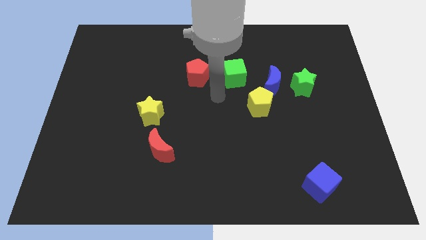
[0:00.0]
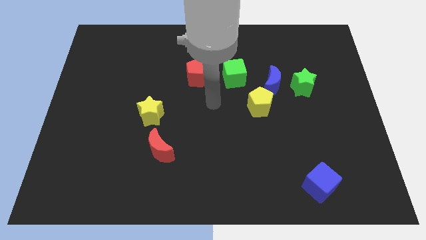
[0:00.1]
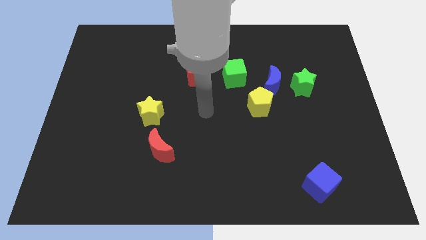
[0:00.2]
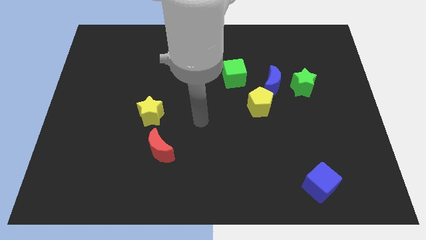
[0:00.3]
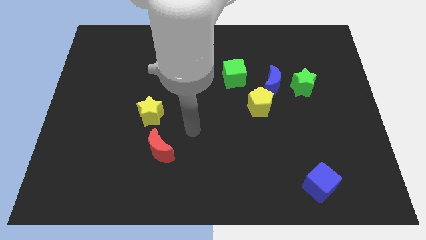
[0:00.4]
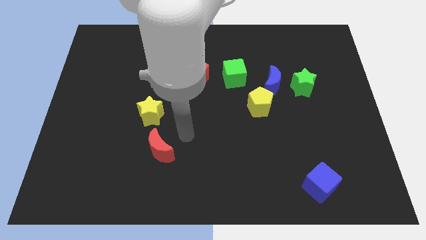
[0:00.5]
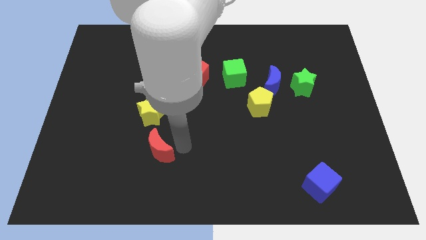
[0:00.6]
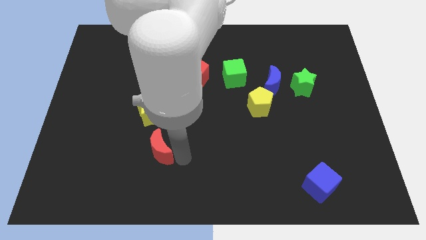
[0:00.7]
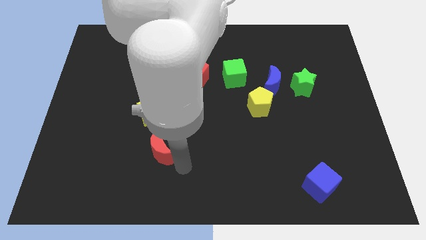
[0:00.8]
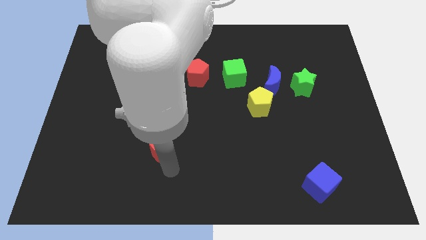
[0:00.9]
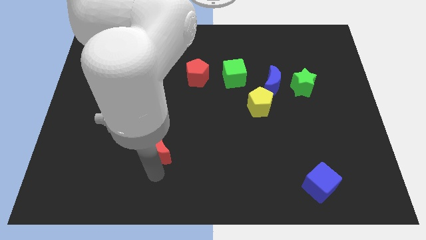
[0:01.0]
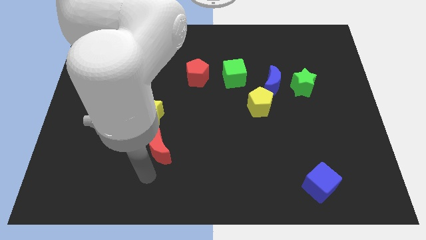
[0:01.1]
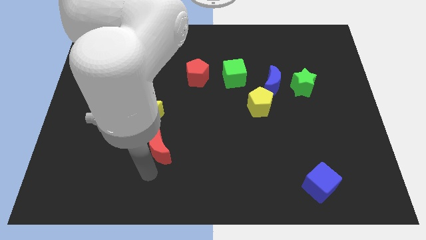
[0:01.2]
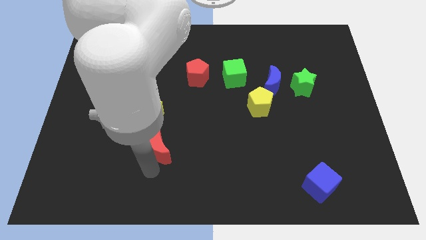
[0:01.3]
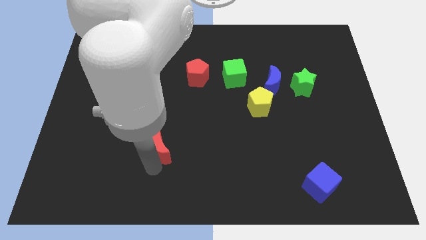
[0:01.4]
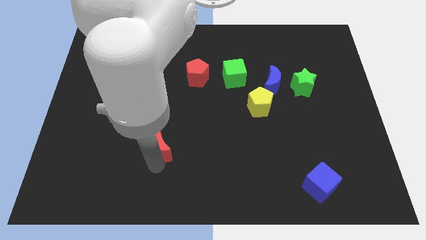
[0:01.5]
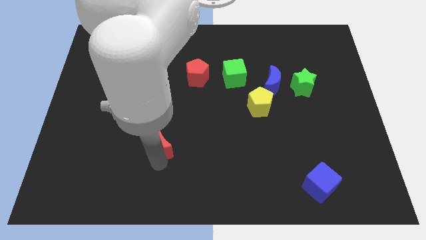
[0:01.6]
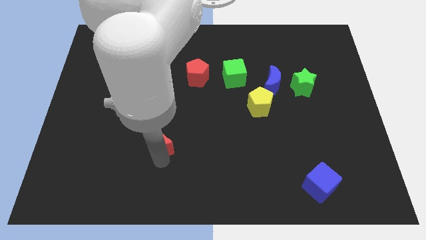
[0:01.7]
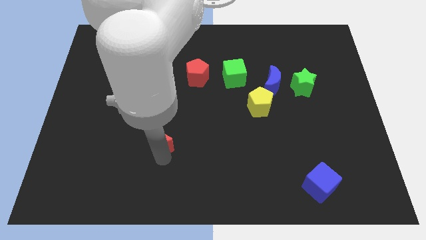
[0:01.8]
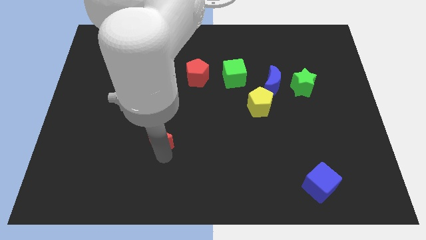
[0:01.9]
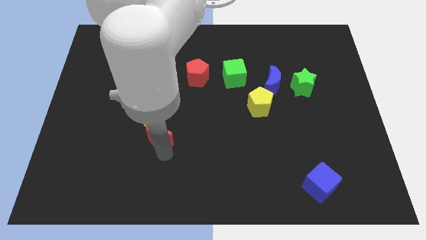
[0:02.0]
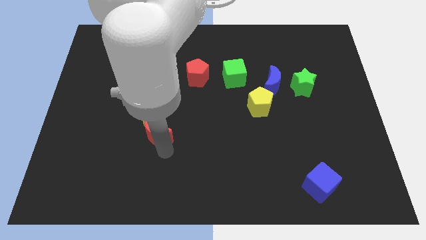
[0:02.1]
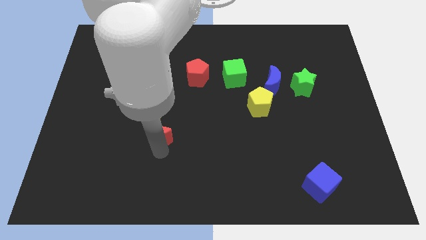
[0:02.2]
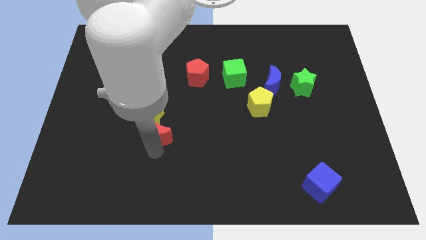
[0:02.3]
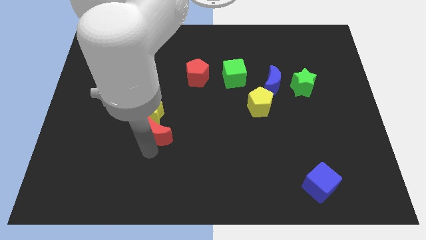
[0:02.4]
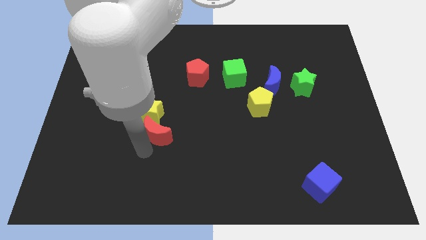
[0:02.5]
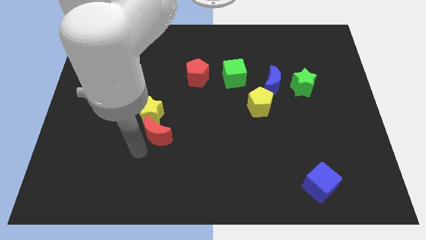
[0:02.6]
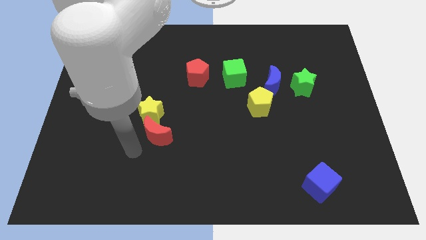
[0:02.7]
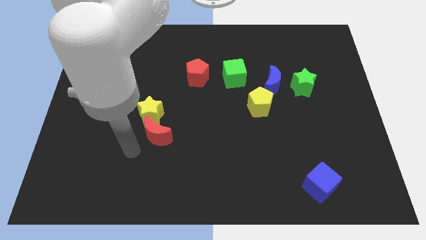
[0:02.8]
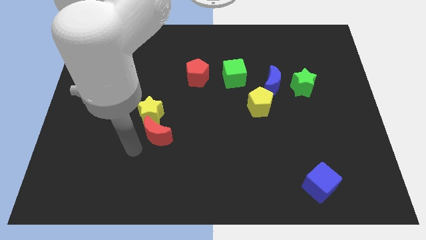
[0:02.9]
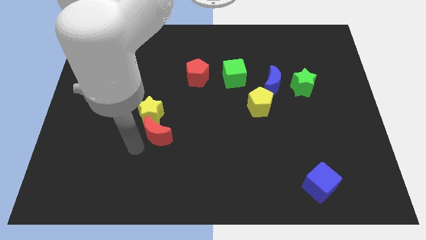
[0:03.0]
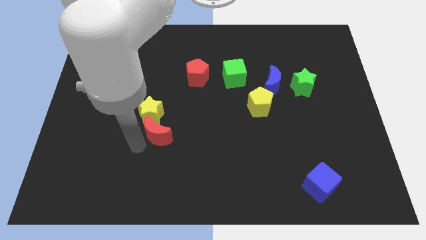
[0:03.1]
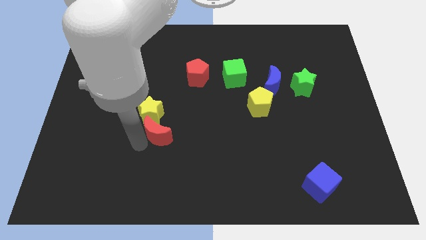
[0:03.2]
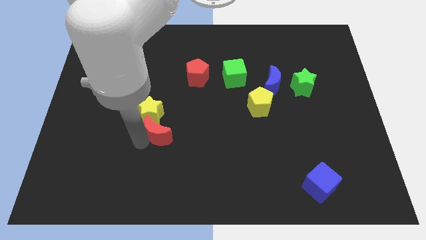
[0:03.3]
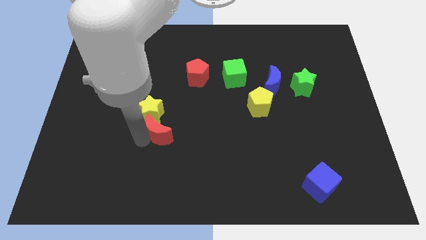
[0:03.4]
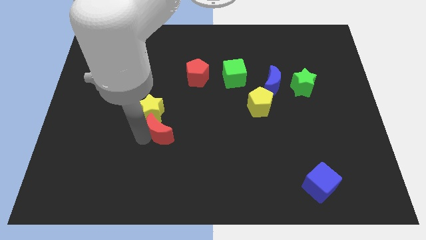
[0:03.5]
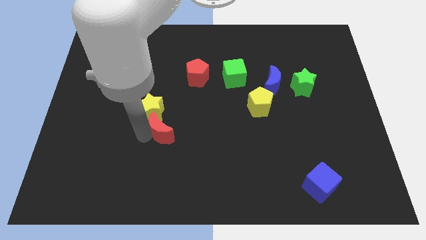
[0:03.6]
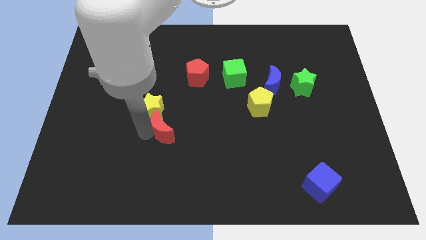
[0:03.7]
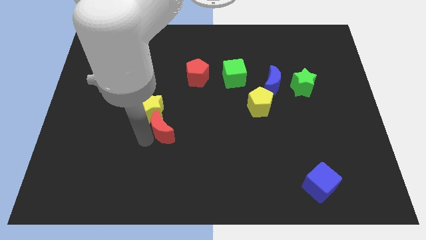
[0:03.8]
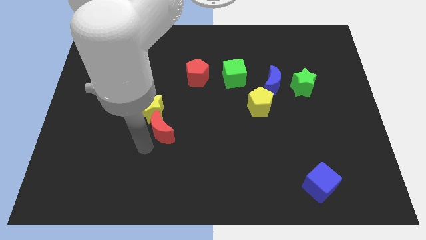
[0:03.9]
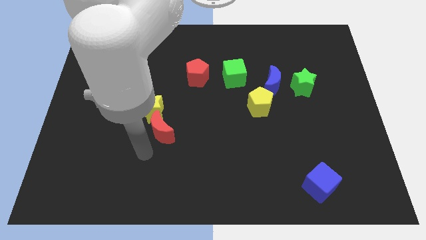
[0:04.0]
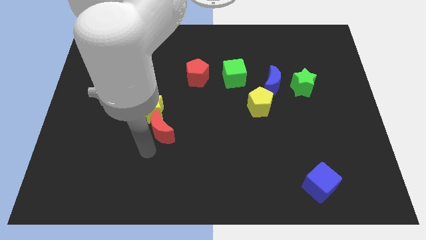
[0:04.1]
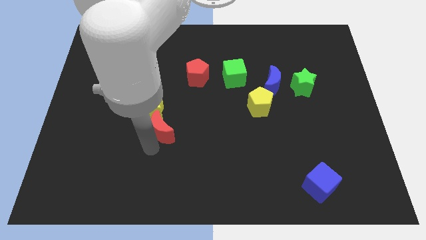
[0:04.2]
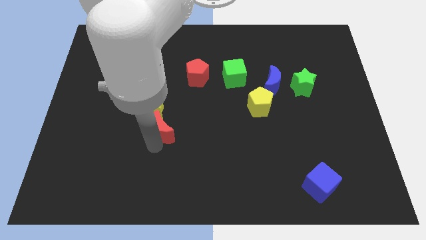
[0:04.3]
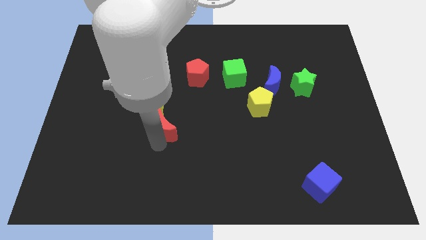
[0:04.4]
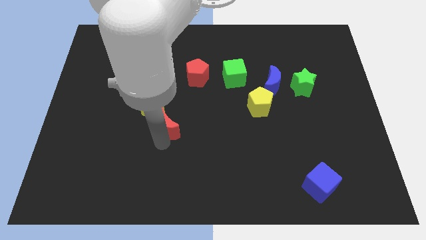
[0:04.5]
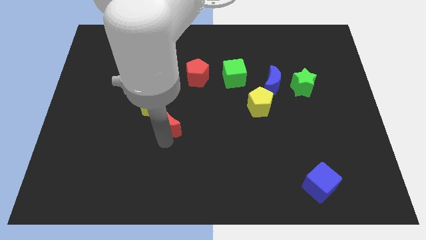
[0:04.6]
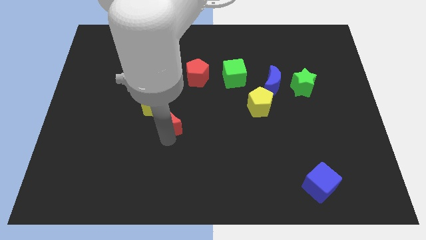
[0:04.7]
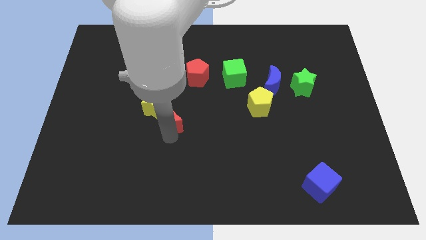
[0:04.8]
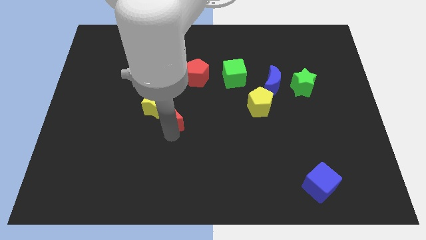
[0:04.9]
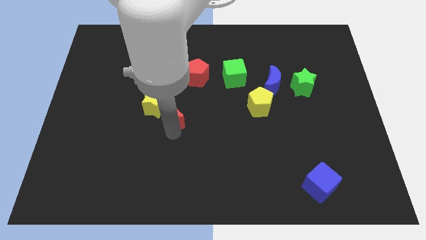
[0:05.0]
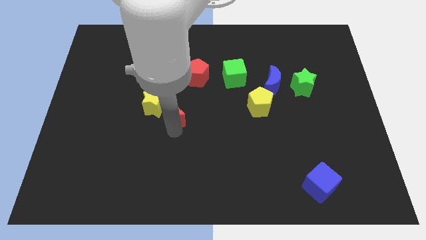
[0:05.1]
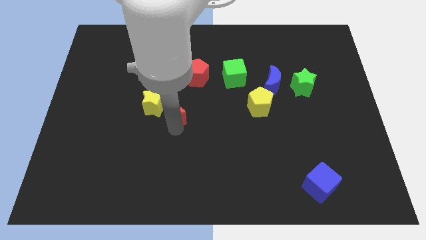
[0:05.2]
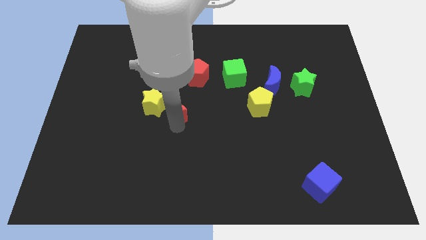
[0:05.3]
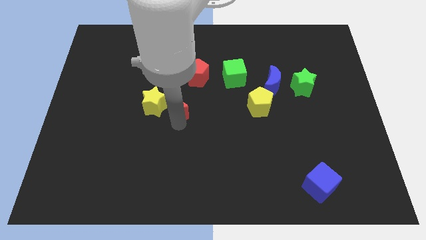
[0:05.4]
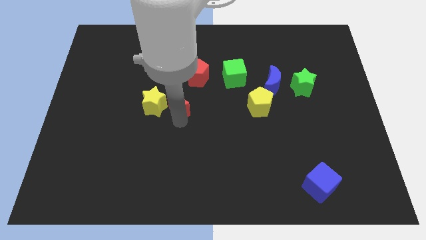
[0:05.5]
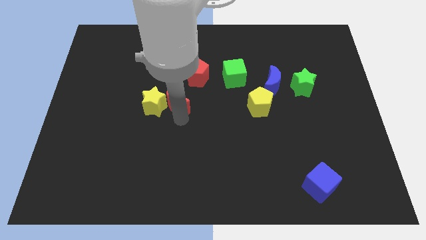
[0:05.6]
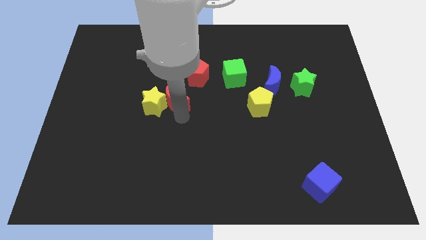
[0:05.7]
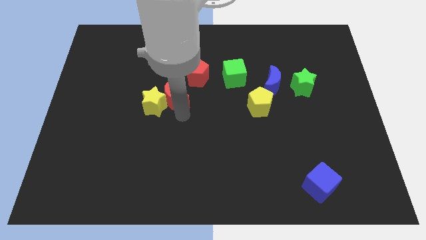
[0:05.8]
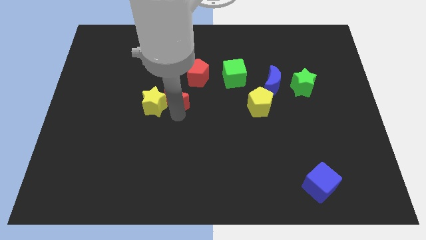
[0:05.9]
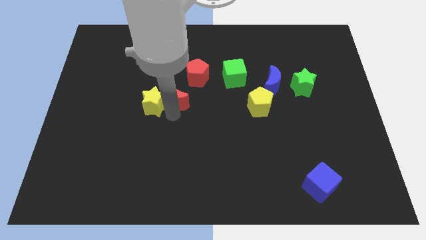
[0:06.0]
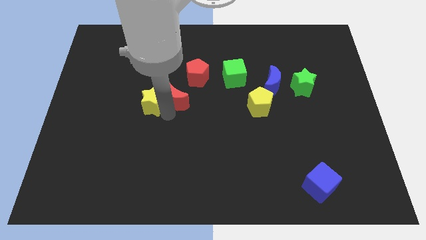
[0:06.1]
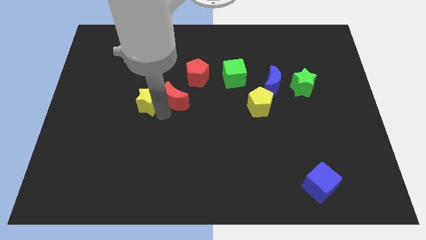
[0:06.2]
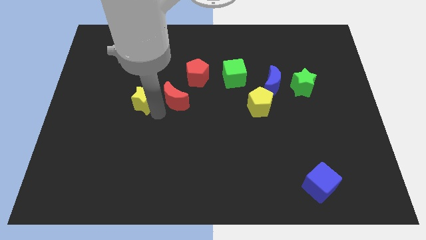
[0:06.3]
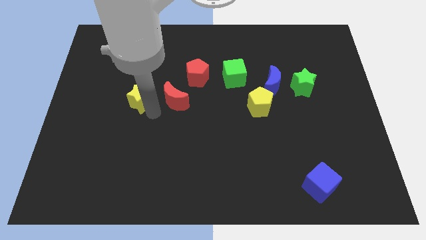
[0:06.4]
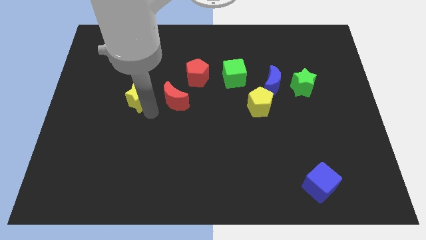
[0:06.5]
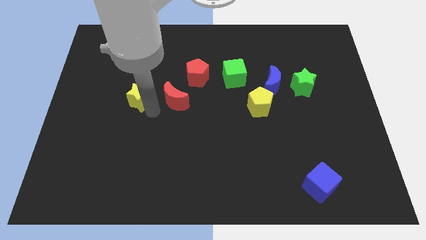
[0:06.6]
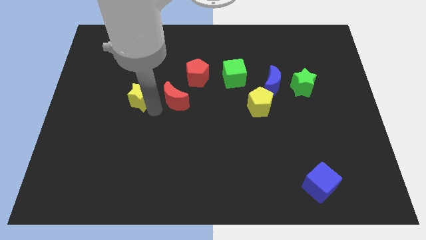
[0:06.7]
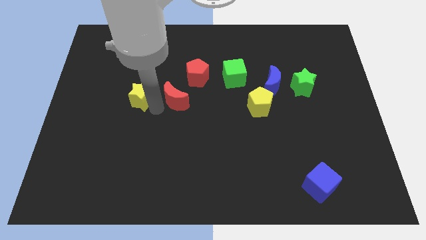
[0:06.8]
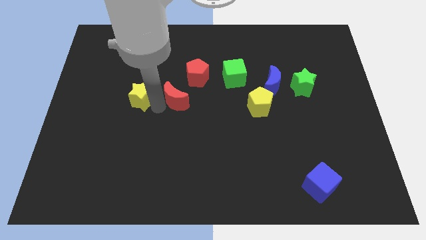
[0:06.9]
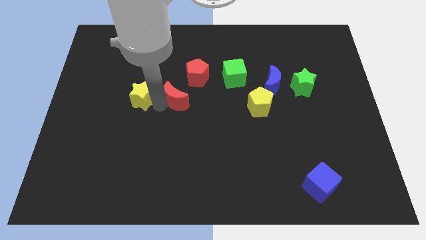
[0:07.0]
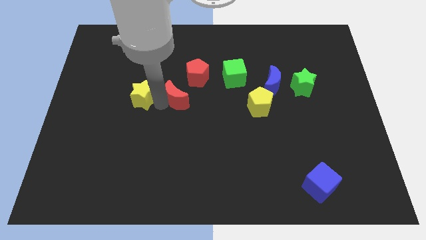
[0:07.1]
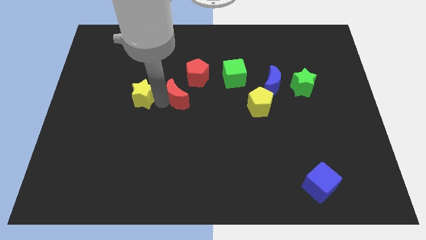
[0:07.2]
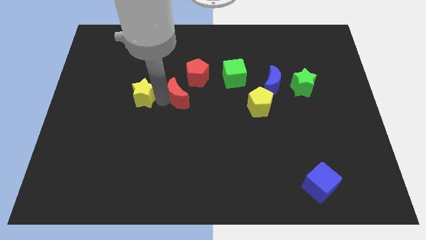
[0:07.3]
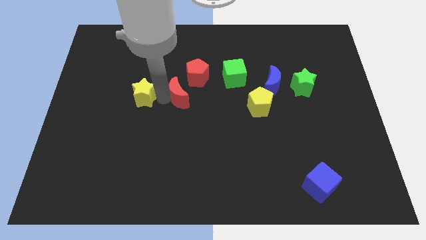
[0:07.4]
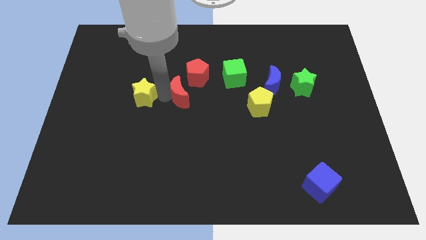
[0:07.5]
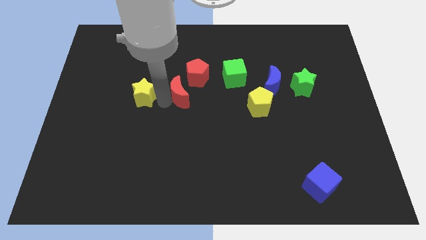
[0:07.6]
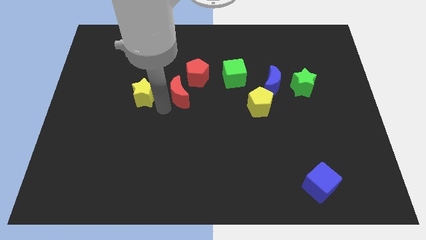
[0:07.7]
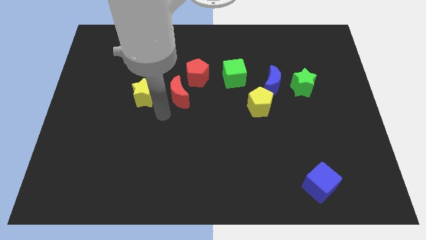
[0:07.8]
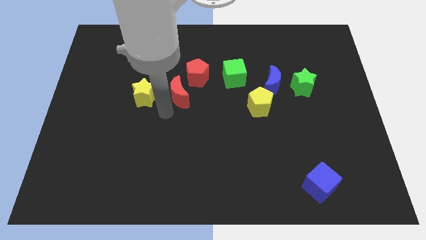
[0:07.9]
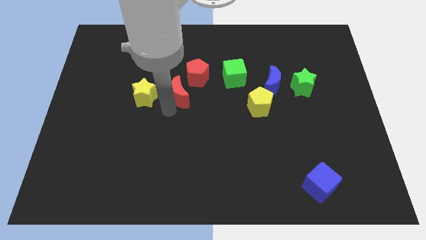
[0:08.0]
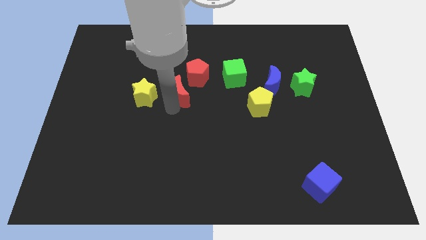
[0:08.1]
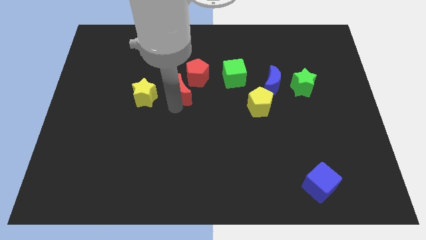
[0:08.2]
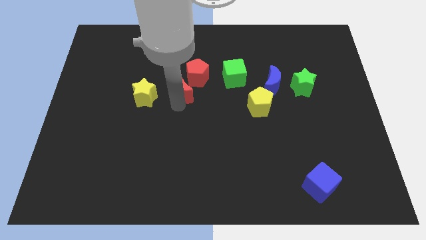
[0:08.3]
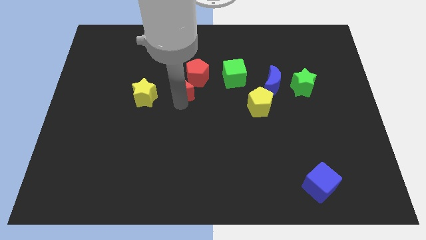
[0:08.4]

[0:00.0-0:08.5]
move the red moon to the red pentagon
